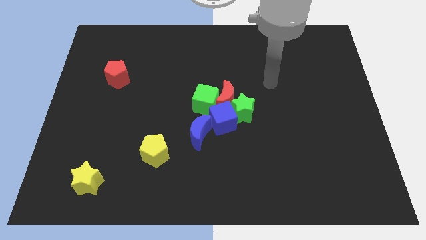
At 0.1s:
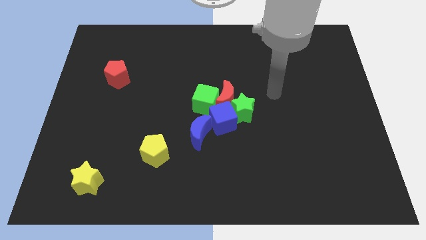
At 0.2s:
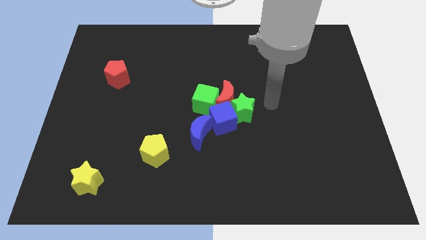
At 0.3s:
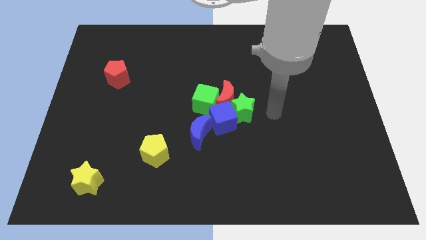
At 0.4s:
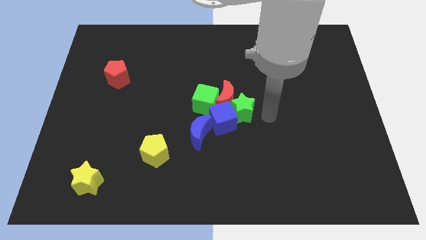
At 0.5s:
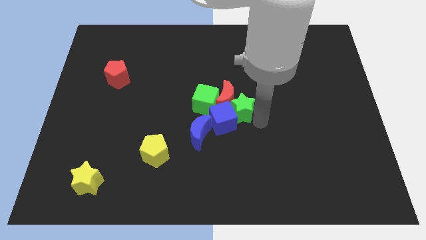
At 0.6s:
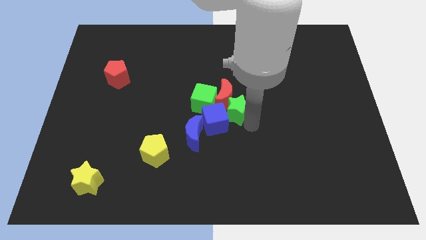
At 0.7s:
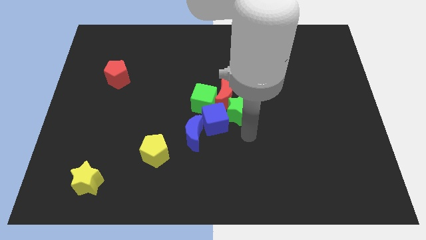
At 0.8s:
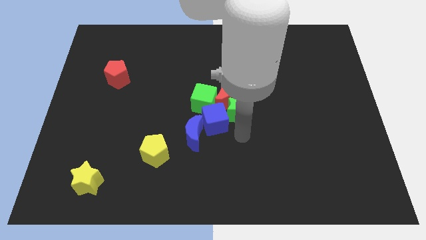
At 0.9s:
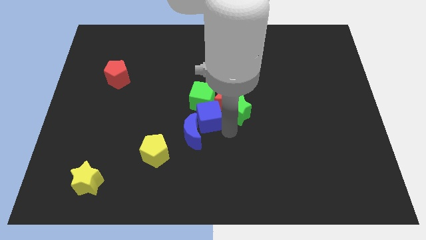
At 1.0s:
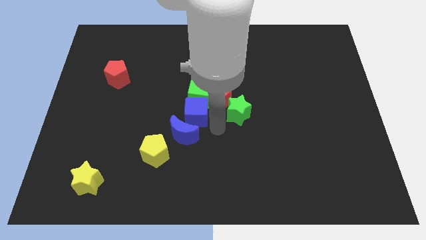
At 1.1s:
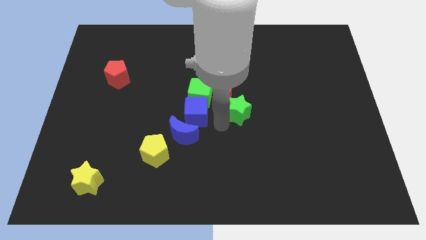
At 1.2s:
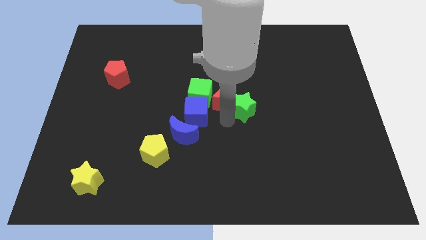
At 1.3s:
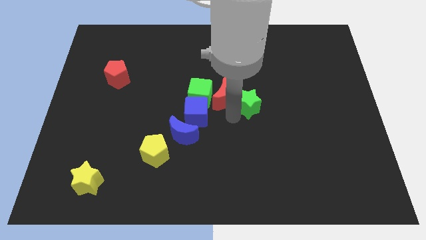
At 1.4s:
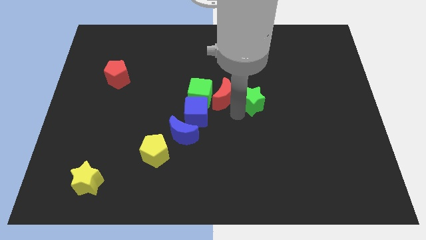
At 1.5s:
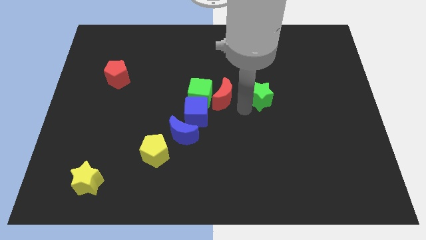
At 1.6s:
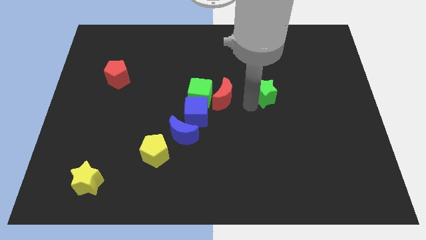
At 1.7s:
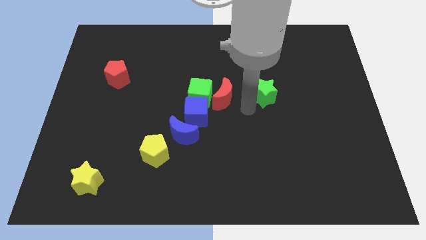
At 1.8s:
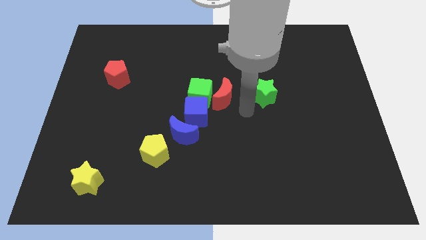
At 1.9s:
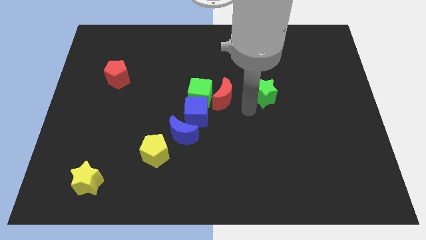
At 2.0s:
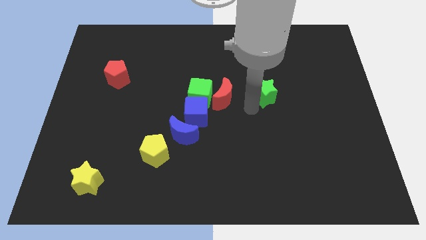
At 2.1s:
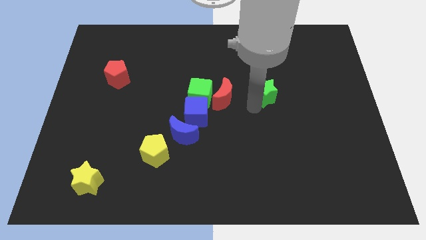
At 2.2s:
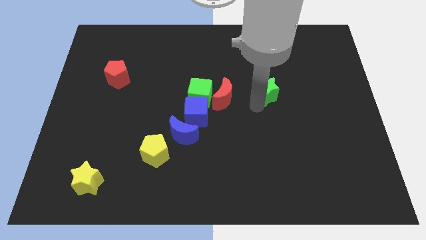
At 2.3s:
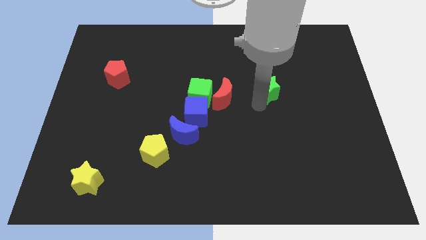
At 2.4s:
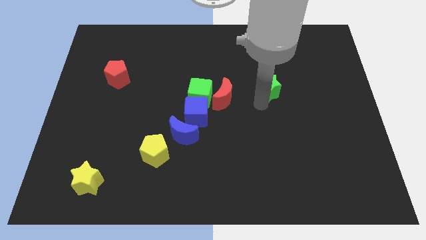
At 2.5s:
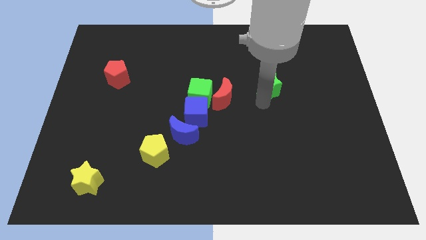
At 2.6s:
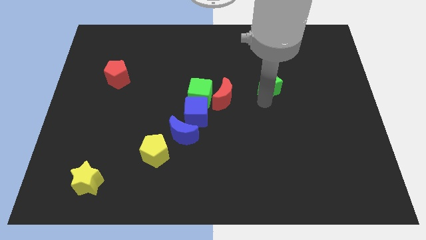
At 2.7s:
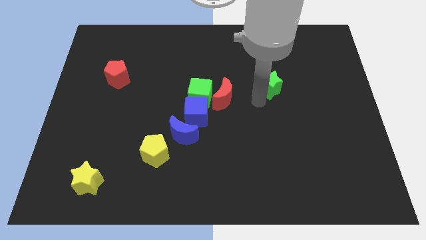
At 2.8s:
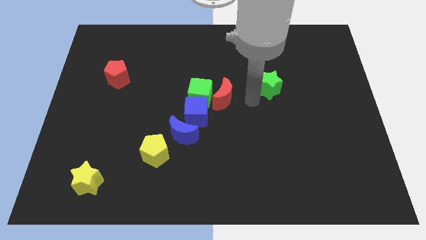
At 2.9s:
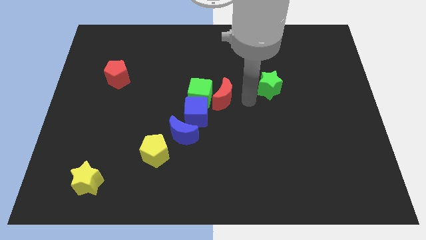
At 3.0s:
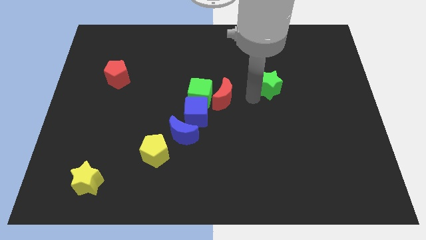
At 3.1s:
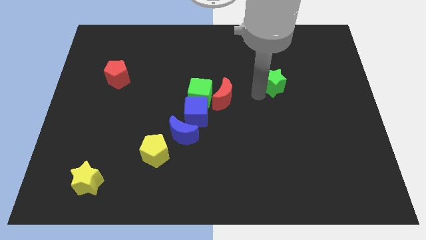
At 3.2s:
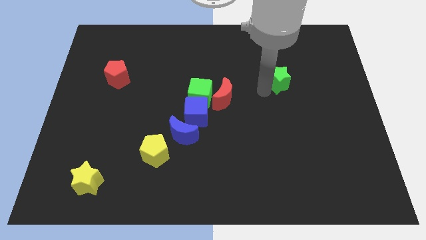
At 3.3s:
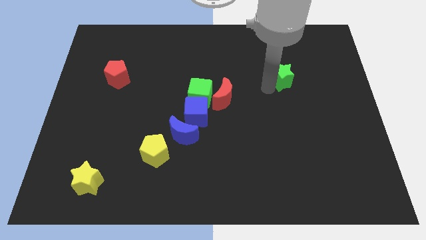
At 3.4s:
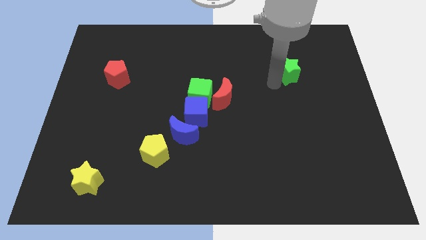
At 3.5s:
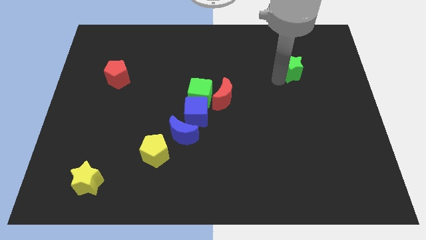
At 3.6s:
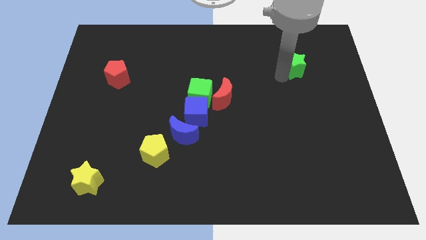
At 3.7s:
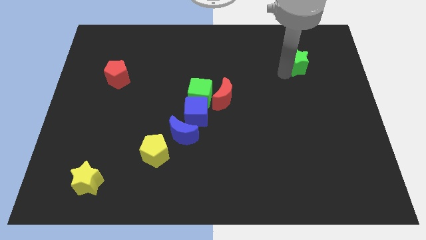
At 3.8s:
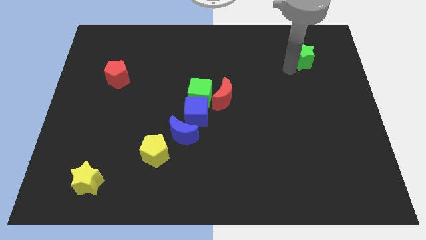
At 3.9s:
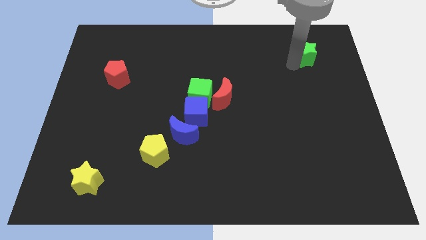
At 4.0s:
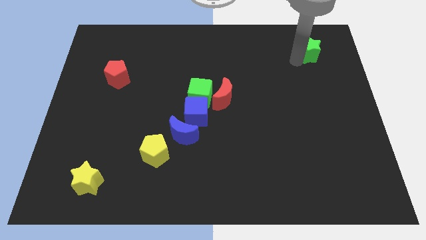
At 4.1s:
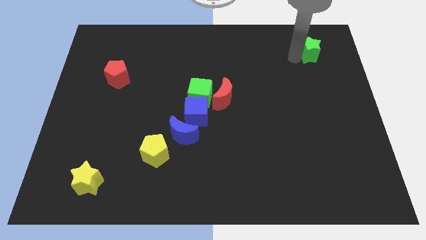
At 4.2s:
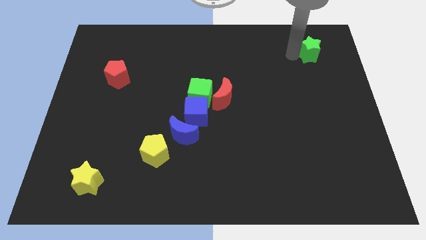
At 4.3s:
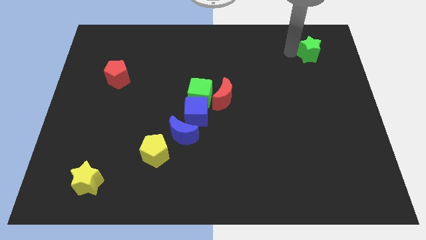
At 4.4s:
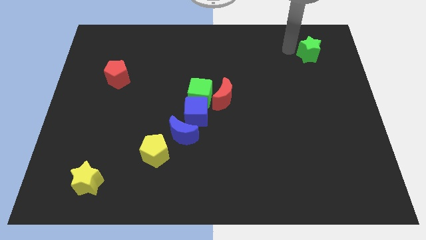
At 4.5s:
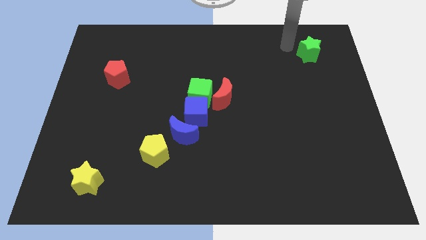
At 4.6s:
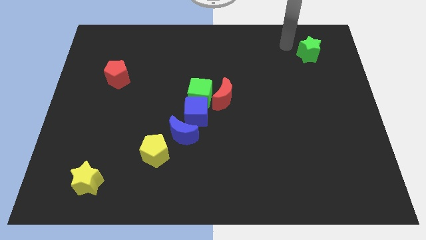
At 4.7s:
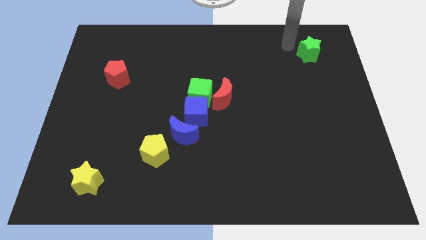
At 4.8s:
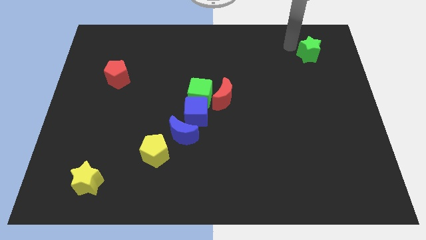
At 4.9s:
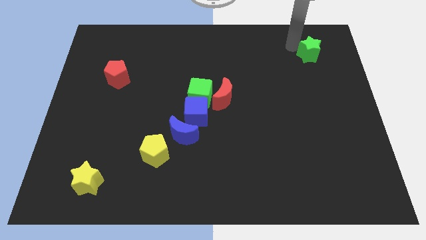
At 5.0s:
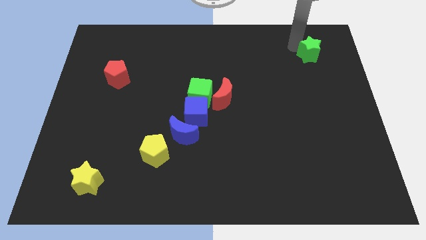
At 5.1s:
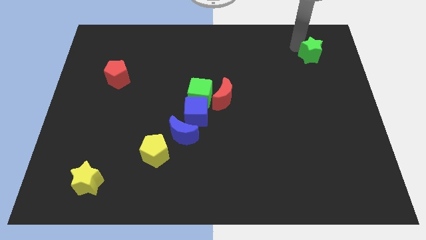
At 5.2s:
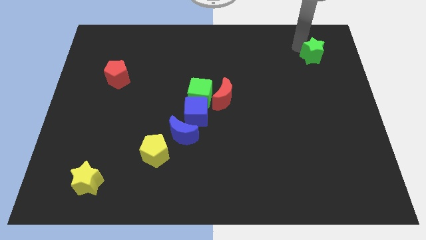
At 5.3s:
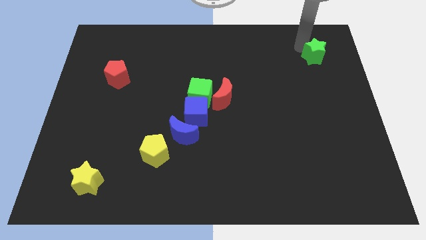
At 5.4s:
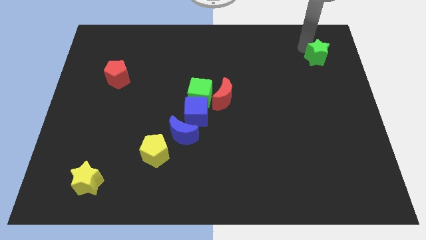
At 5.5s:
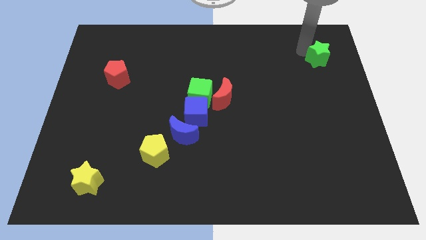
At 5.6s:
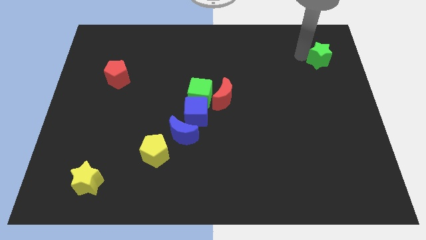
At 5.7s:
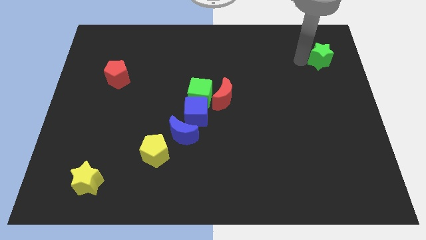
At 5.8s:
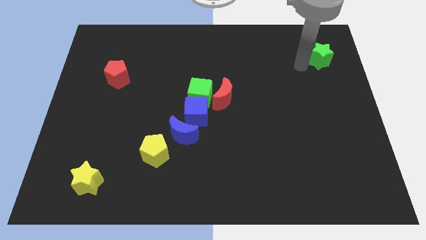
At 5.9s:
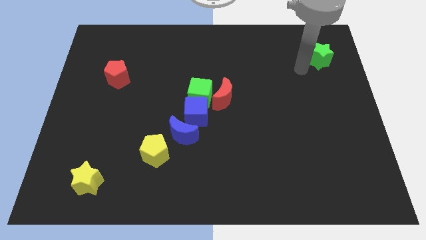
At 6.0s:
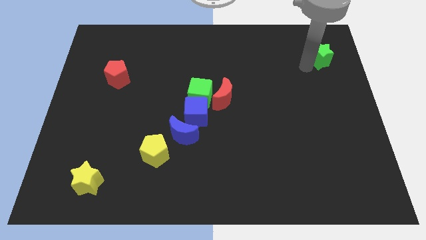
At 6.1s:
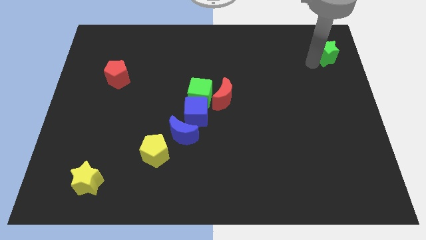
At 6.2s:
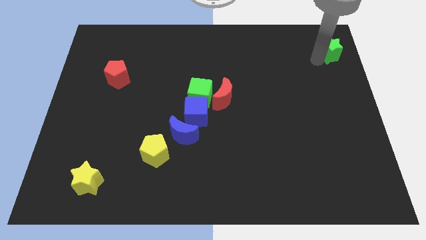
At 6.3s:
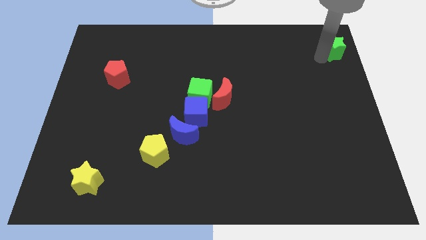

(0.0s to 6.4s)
move the green star to the top right of the board
